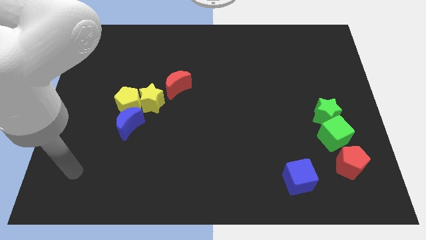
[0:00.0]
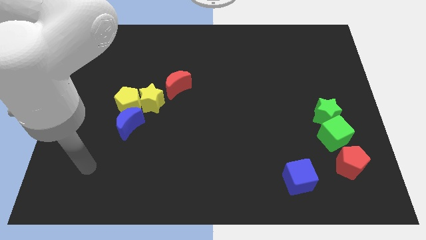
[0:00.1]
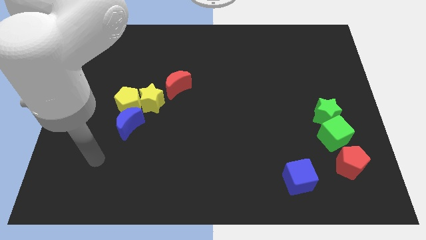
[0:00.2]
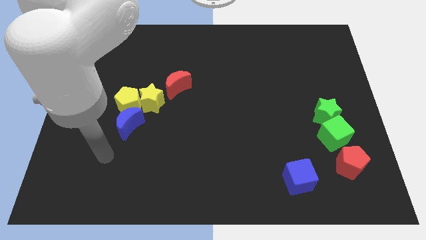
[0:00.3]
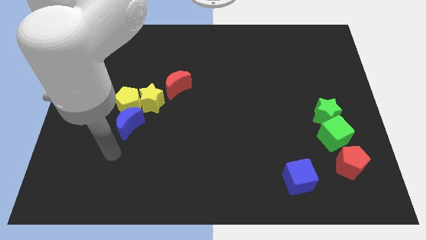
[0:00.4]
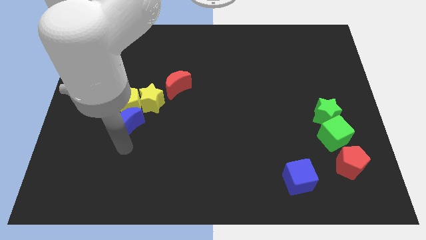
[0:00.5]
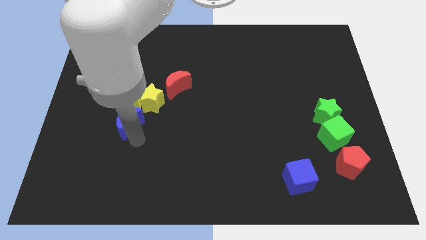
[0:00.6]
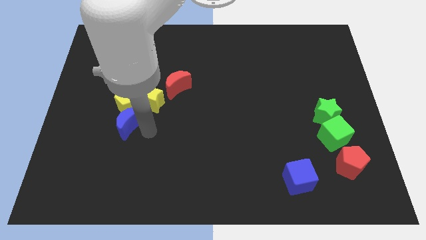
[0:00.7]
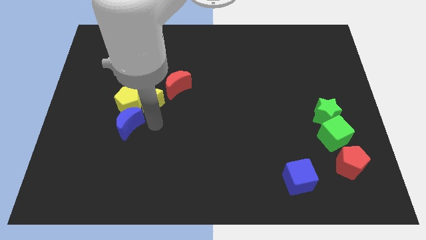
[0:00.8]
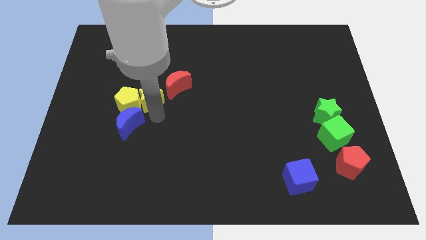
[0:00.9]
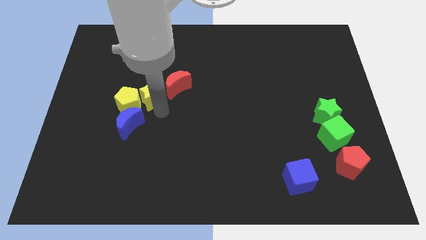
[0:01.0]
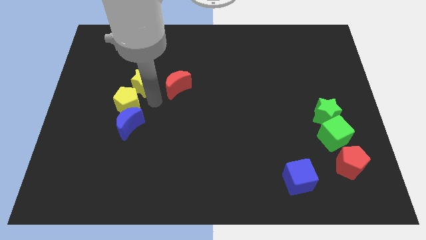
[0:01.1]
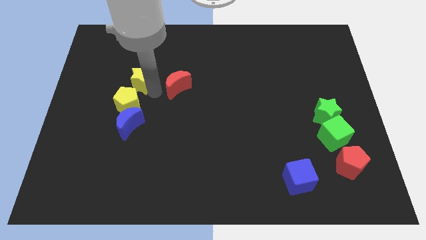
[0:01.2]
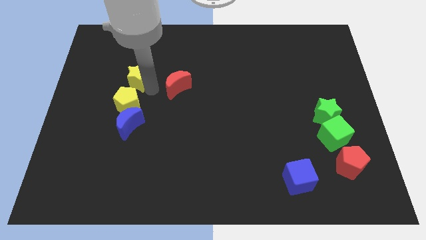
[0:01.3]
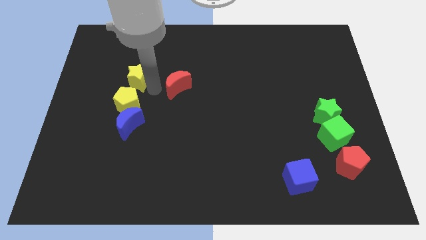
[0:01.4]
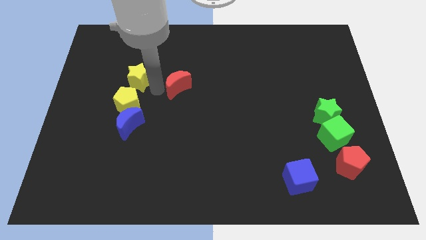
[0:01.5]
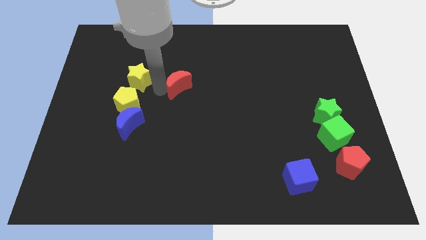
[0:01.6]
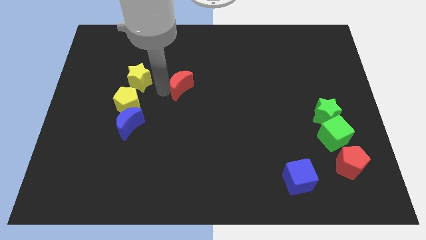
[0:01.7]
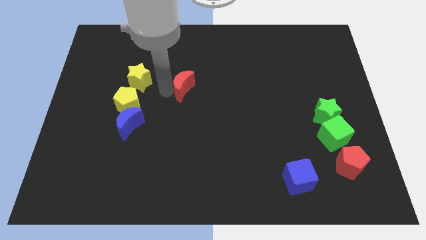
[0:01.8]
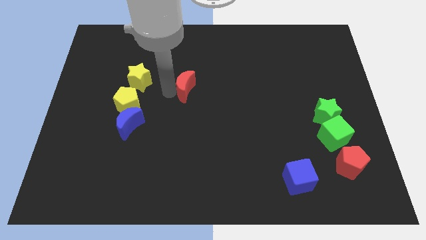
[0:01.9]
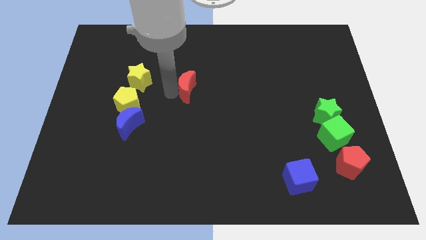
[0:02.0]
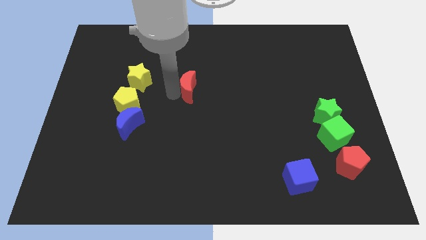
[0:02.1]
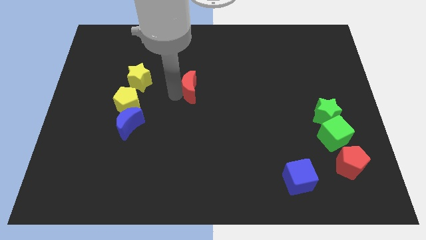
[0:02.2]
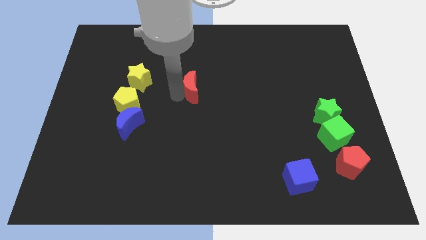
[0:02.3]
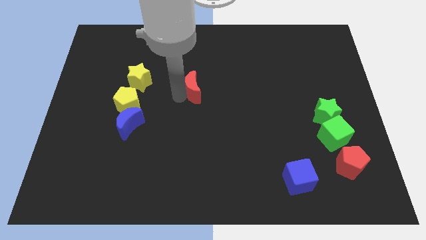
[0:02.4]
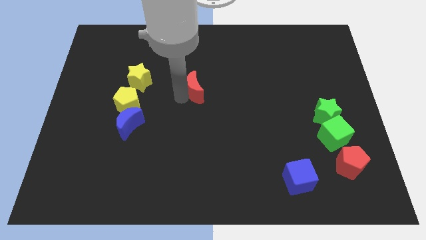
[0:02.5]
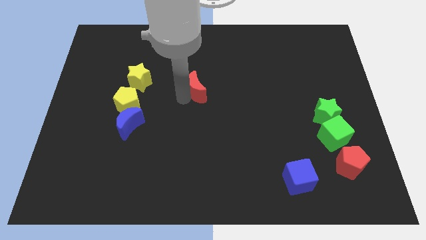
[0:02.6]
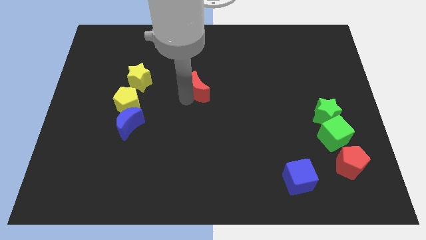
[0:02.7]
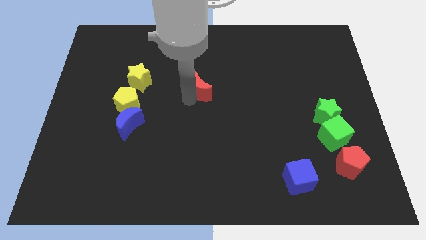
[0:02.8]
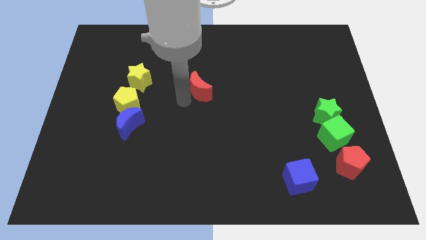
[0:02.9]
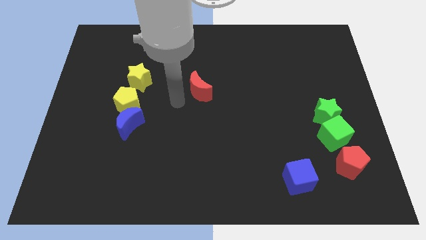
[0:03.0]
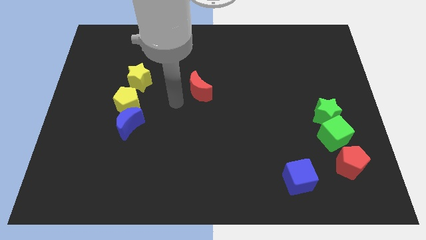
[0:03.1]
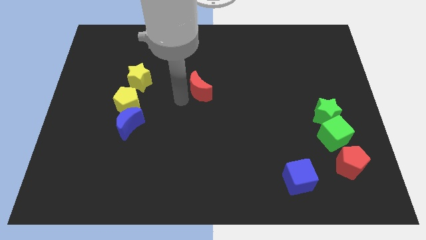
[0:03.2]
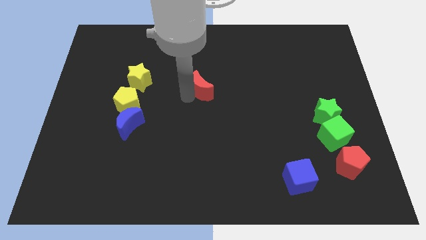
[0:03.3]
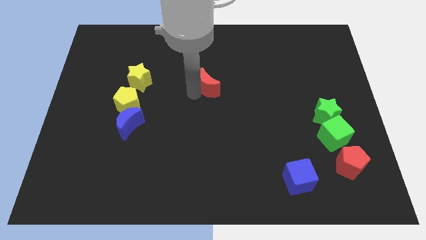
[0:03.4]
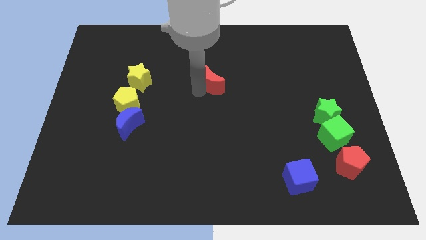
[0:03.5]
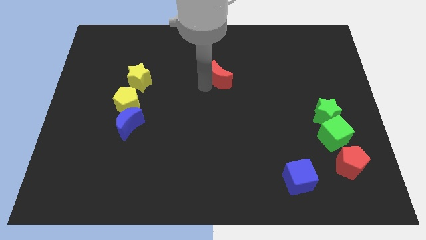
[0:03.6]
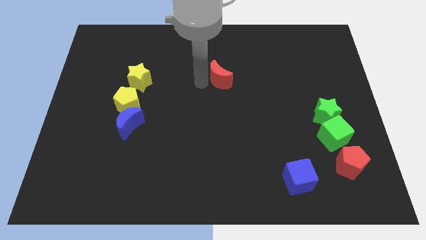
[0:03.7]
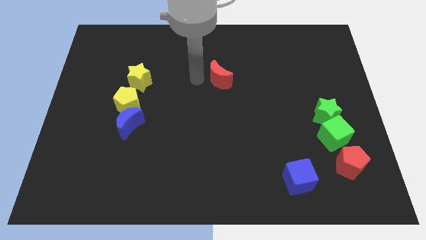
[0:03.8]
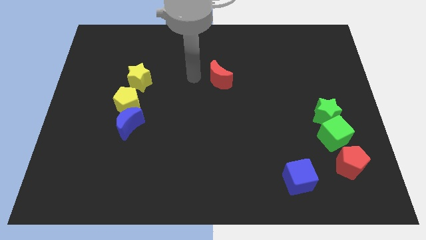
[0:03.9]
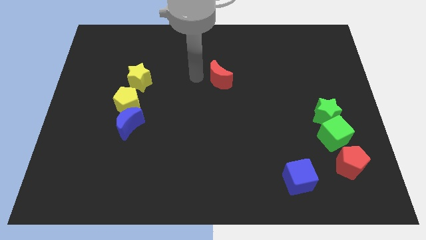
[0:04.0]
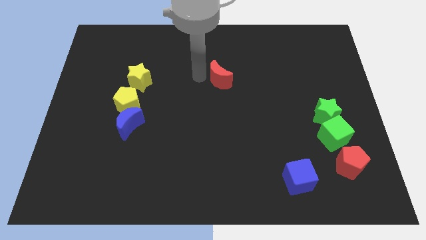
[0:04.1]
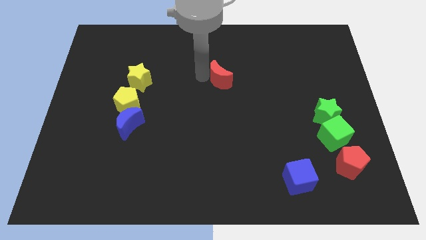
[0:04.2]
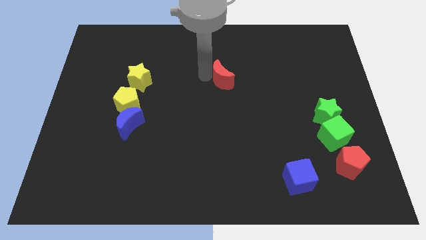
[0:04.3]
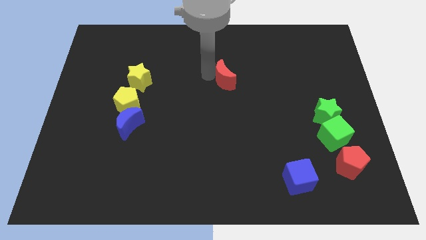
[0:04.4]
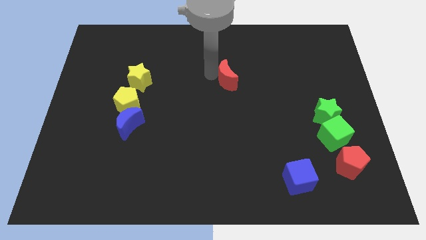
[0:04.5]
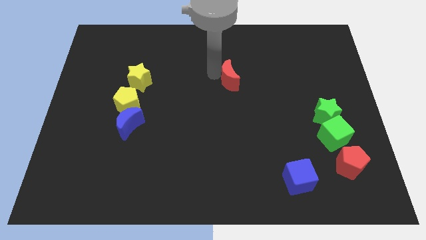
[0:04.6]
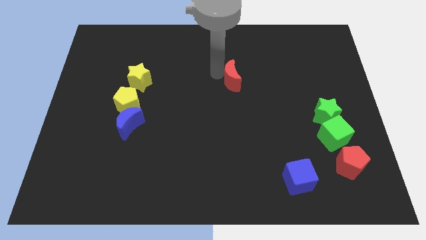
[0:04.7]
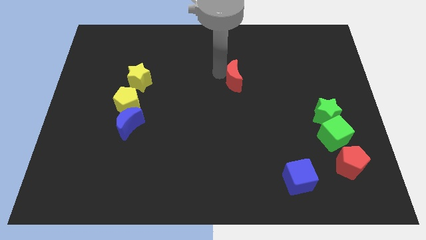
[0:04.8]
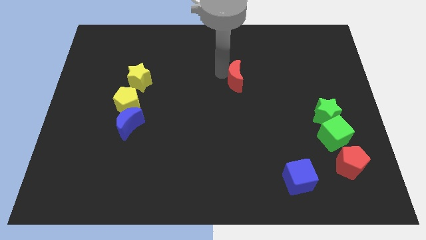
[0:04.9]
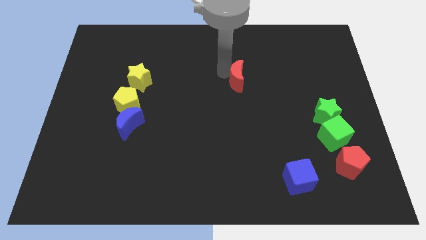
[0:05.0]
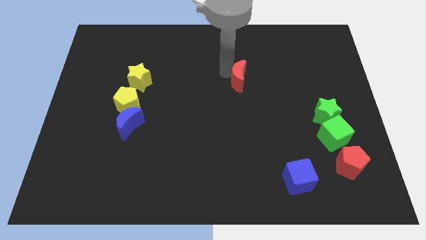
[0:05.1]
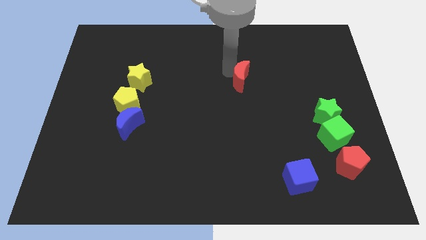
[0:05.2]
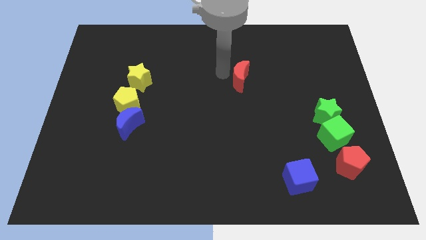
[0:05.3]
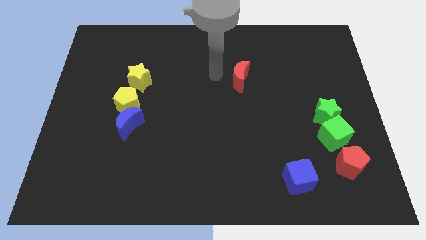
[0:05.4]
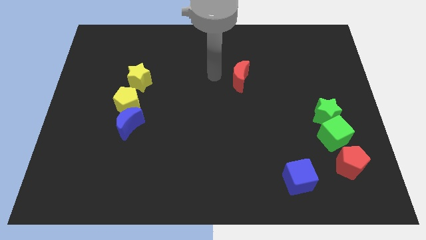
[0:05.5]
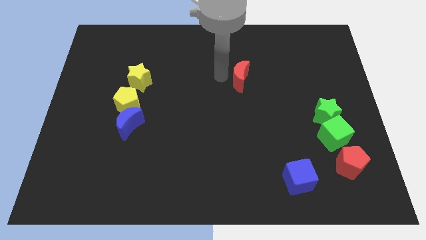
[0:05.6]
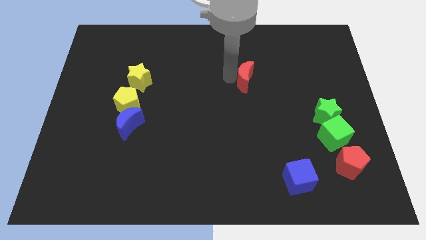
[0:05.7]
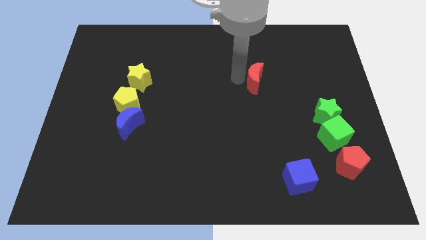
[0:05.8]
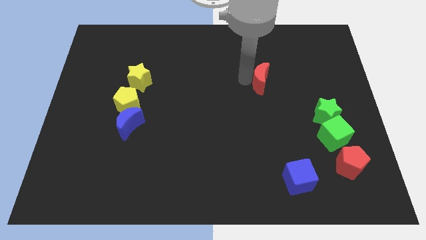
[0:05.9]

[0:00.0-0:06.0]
move the red moon to the right

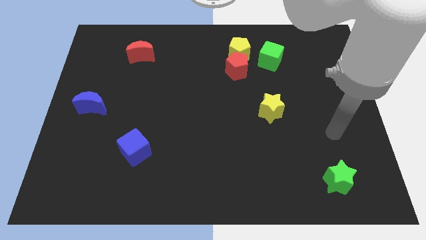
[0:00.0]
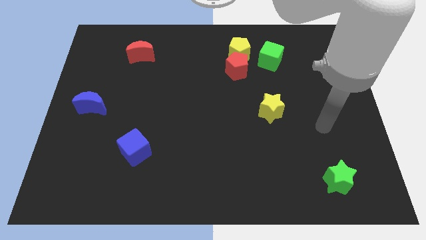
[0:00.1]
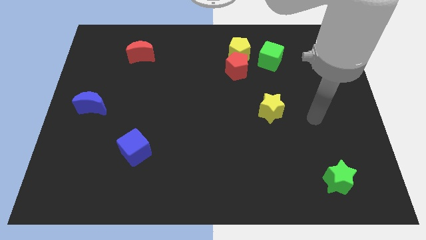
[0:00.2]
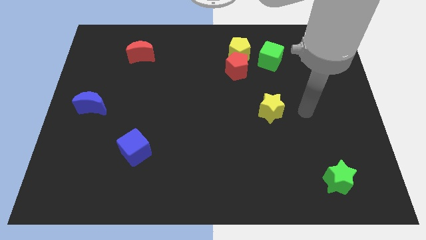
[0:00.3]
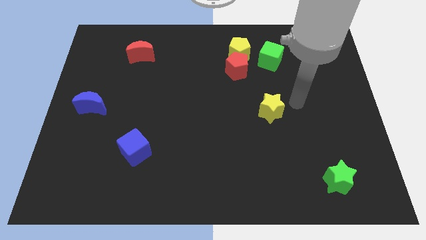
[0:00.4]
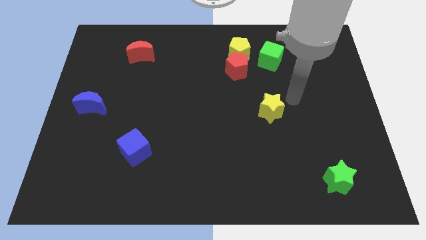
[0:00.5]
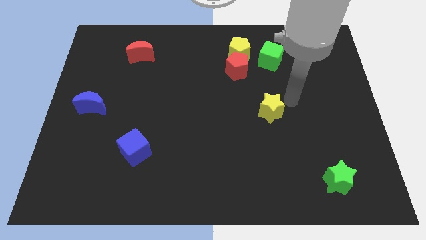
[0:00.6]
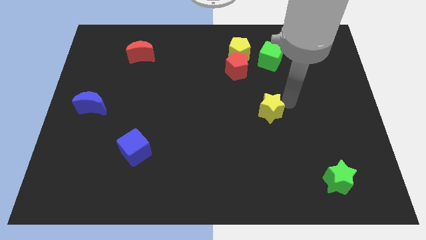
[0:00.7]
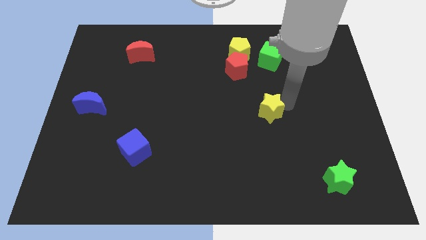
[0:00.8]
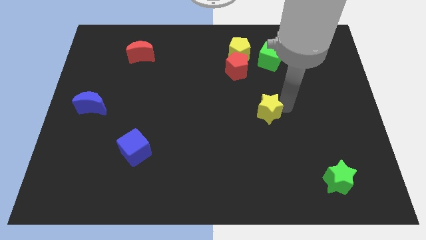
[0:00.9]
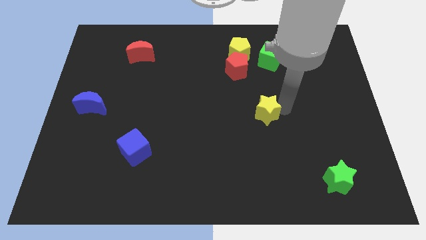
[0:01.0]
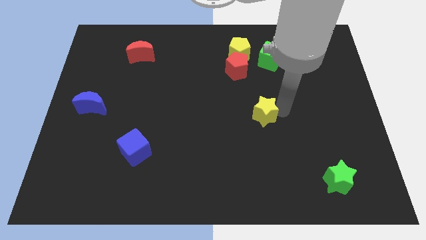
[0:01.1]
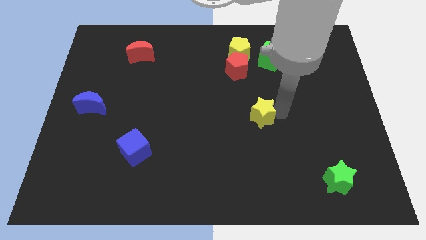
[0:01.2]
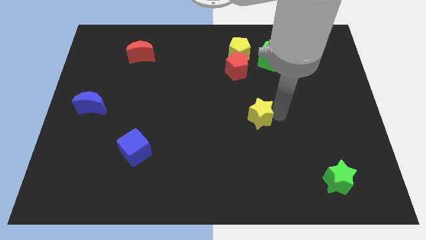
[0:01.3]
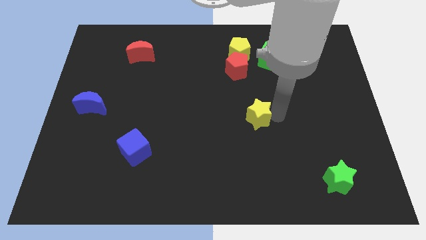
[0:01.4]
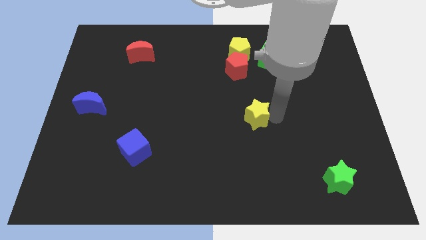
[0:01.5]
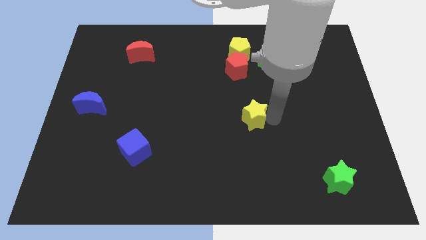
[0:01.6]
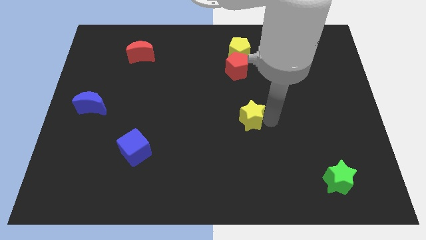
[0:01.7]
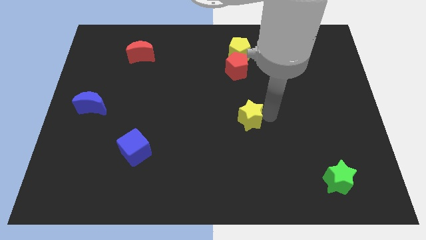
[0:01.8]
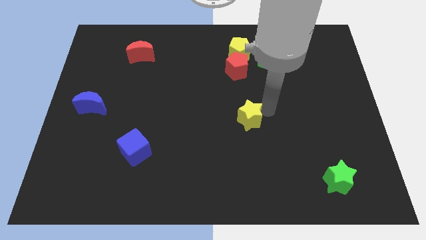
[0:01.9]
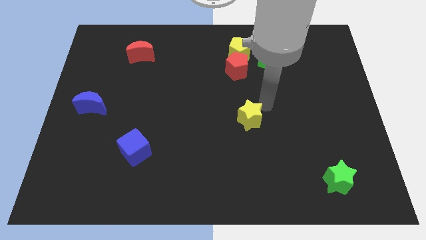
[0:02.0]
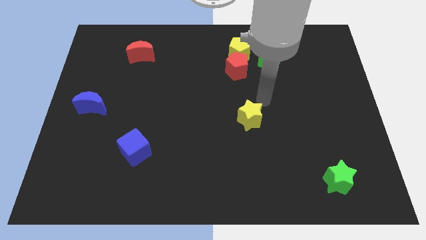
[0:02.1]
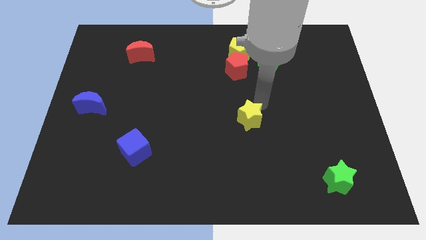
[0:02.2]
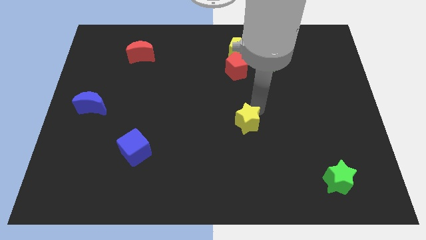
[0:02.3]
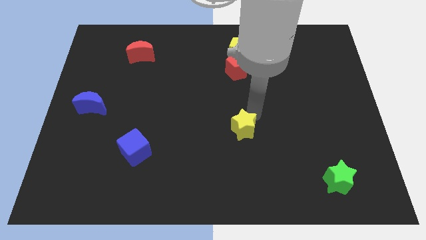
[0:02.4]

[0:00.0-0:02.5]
slide the yellow star a bit downwards and left
